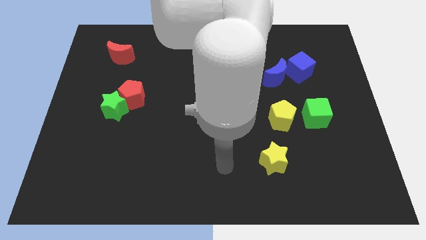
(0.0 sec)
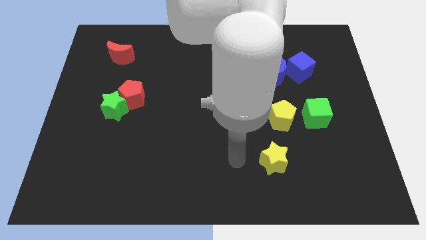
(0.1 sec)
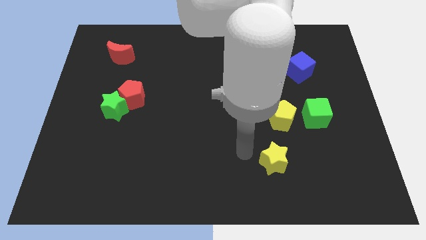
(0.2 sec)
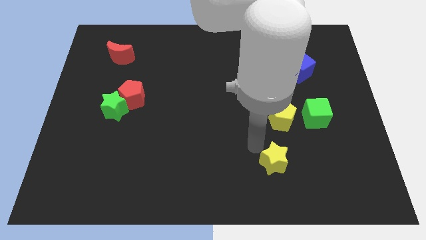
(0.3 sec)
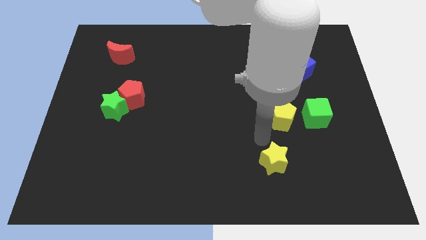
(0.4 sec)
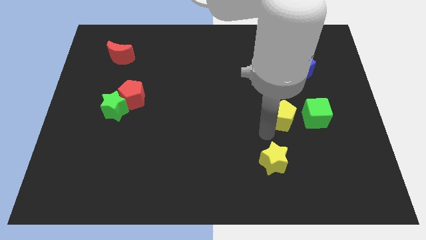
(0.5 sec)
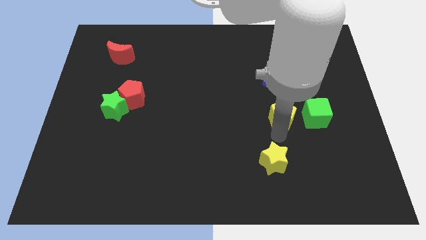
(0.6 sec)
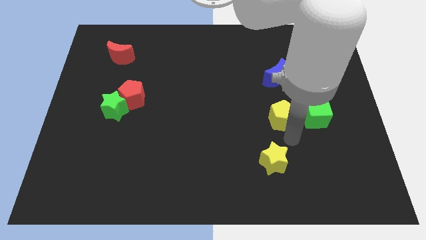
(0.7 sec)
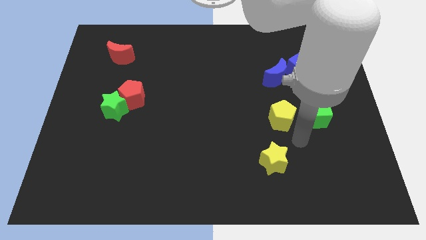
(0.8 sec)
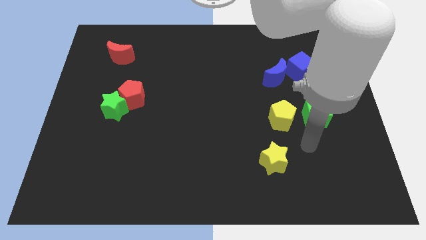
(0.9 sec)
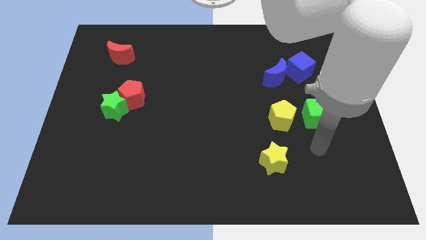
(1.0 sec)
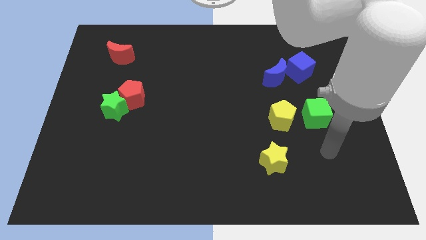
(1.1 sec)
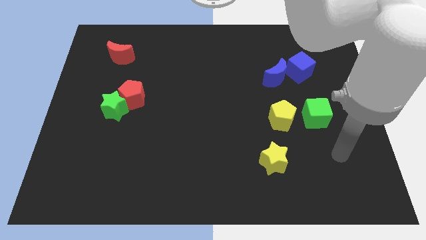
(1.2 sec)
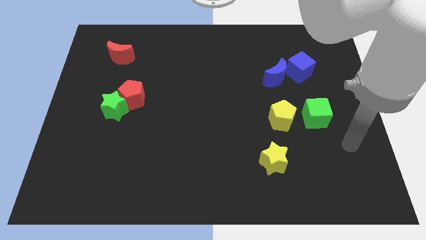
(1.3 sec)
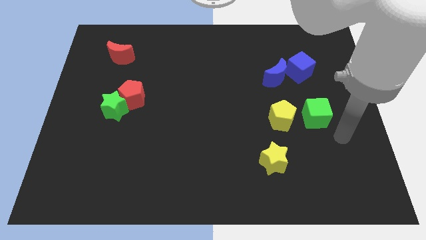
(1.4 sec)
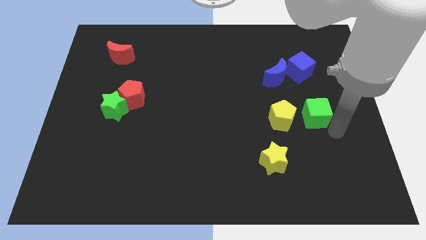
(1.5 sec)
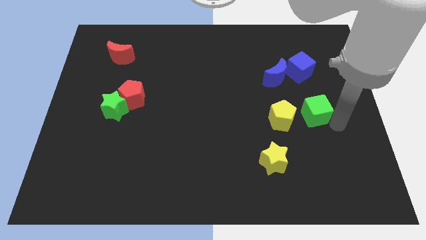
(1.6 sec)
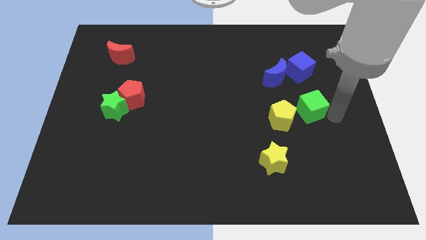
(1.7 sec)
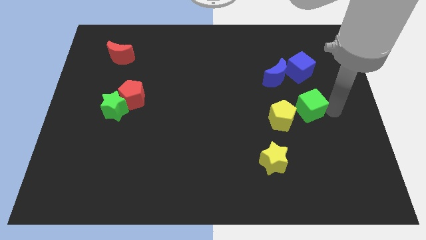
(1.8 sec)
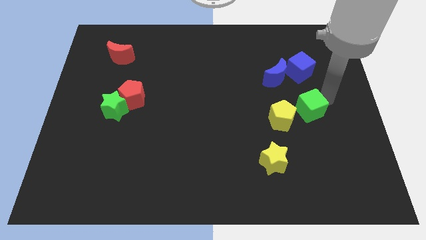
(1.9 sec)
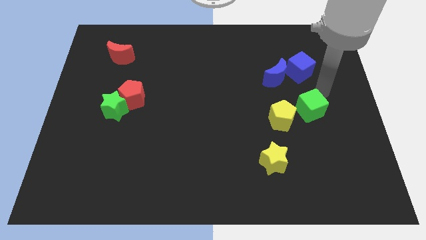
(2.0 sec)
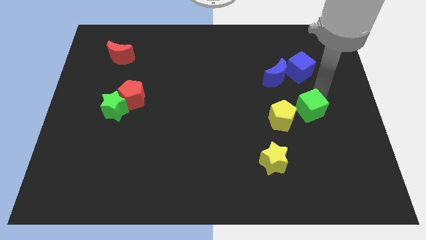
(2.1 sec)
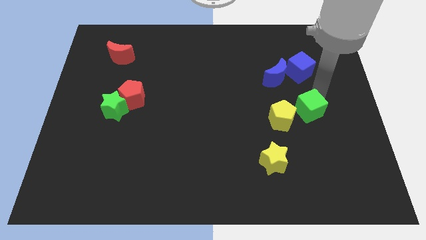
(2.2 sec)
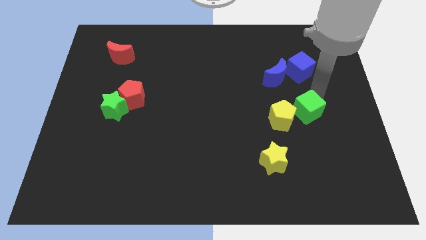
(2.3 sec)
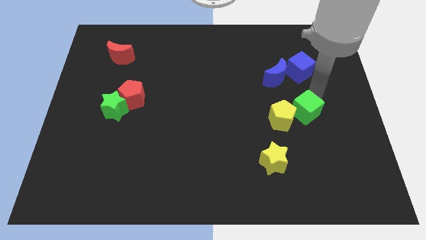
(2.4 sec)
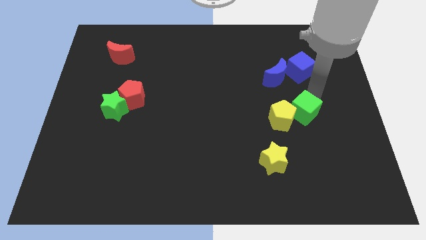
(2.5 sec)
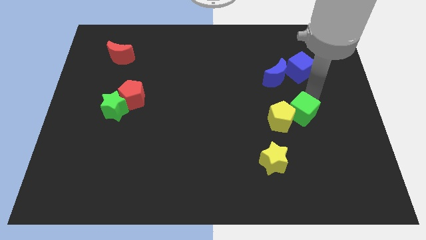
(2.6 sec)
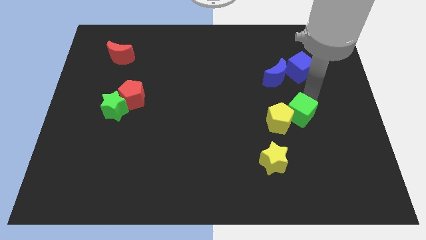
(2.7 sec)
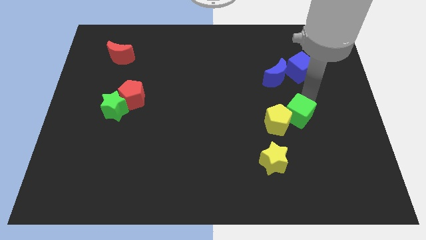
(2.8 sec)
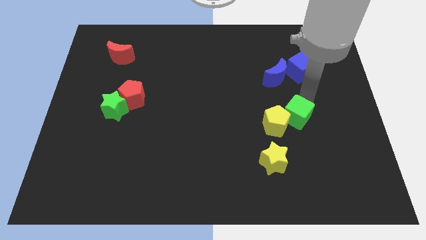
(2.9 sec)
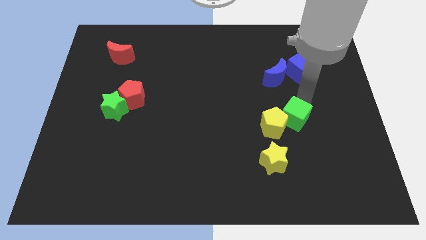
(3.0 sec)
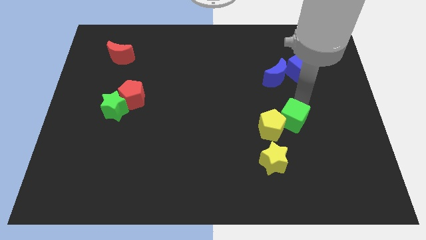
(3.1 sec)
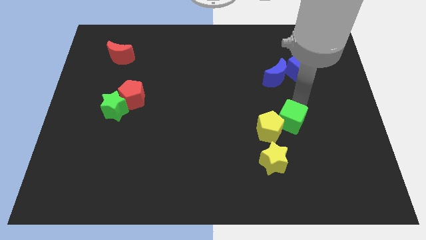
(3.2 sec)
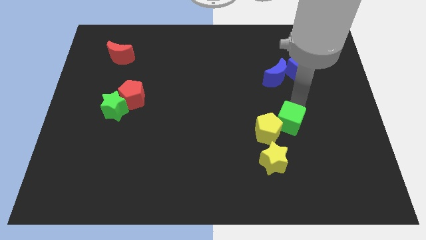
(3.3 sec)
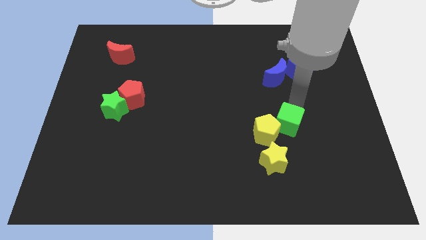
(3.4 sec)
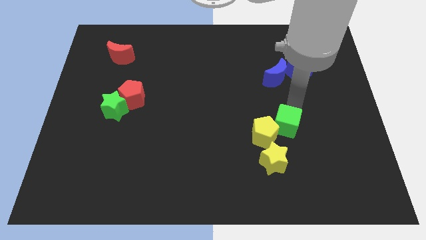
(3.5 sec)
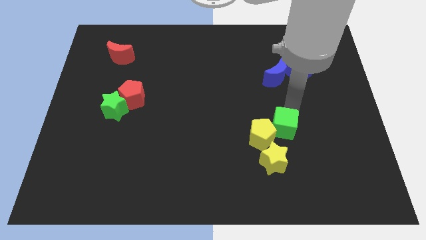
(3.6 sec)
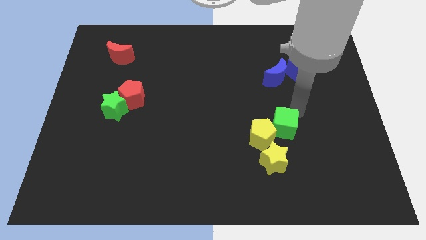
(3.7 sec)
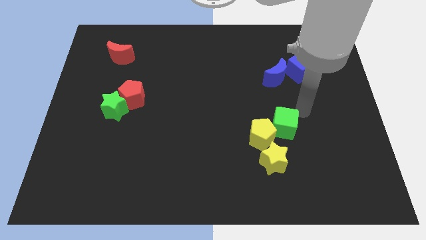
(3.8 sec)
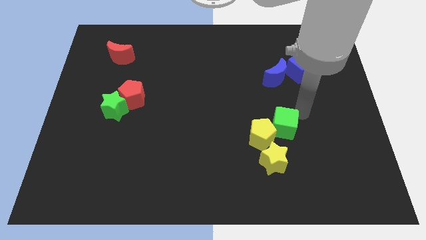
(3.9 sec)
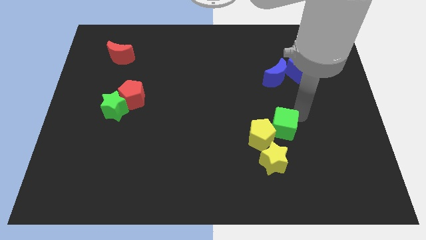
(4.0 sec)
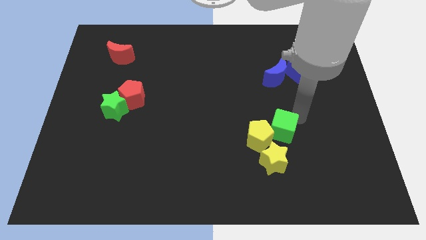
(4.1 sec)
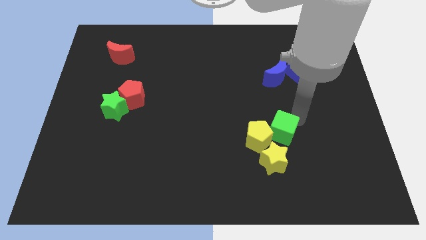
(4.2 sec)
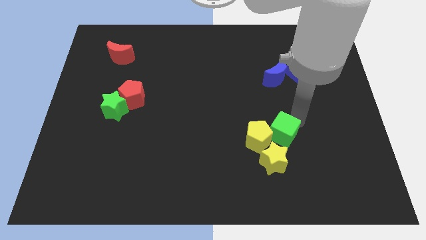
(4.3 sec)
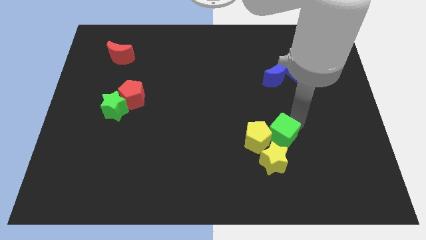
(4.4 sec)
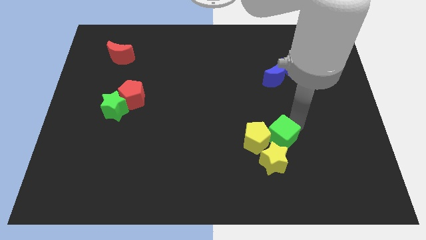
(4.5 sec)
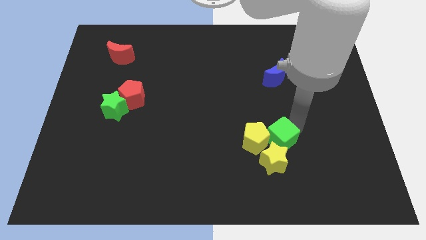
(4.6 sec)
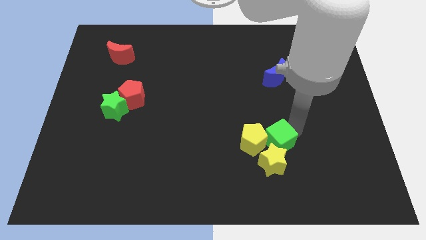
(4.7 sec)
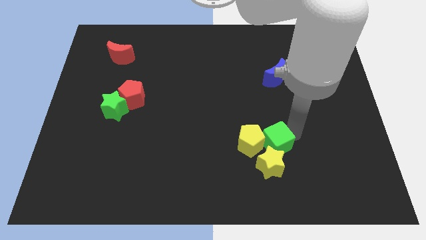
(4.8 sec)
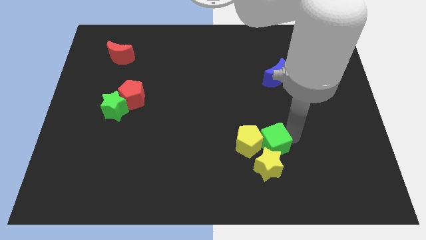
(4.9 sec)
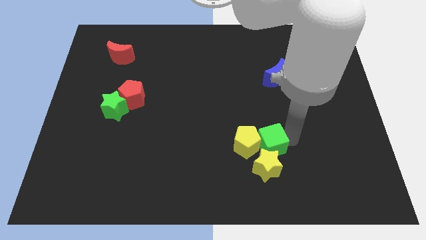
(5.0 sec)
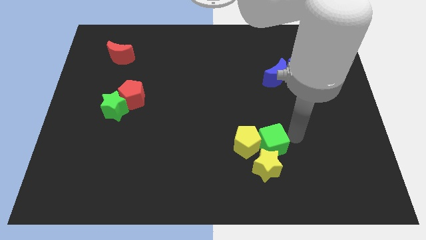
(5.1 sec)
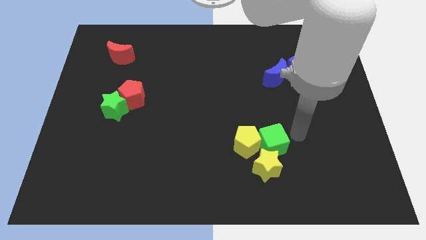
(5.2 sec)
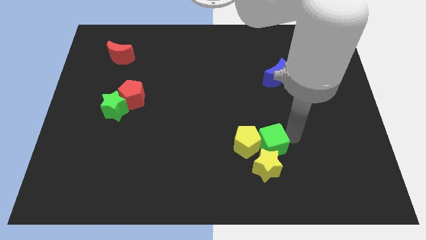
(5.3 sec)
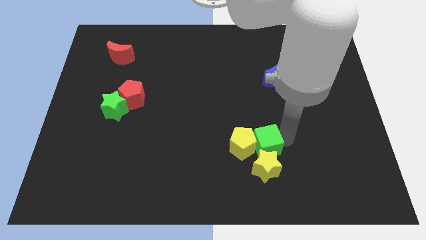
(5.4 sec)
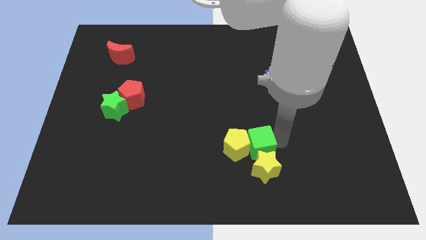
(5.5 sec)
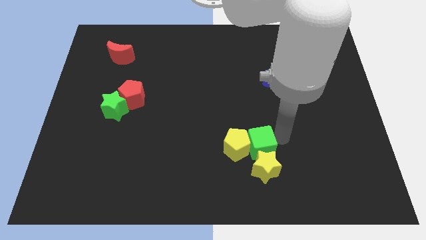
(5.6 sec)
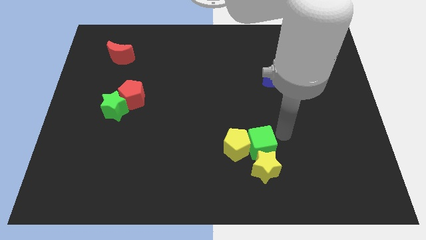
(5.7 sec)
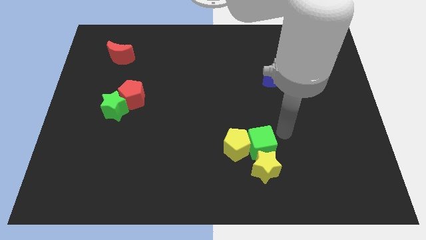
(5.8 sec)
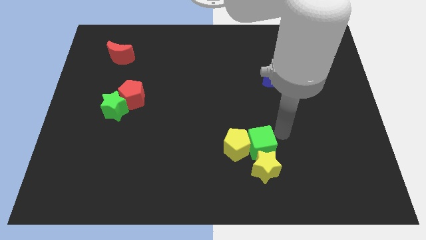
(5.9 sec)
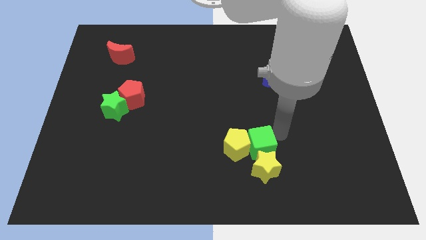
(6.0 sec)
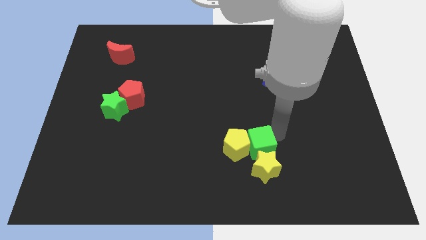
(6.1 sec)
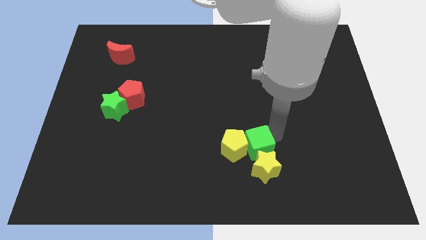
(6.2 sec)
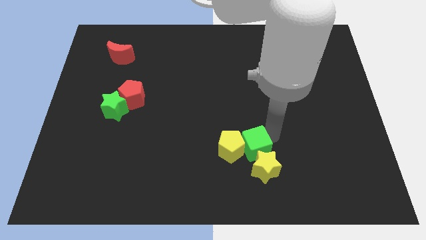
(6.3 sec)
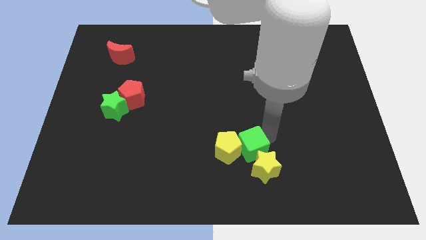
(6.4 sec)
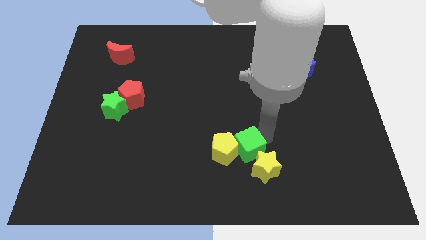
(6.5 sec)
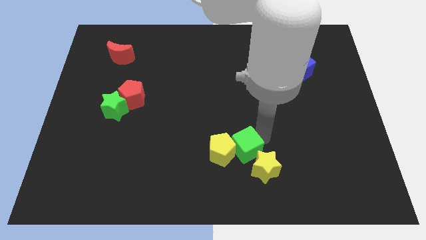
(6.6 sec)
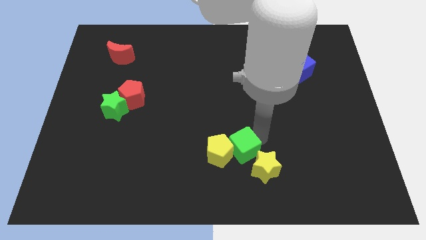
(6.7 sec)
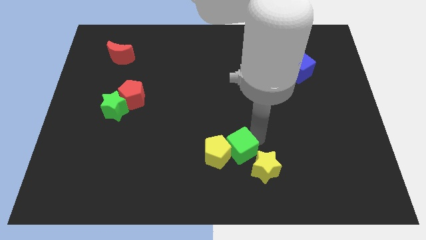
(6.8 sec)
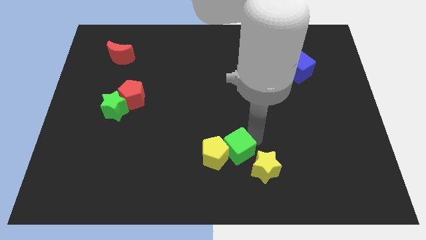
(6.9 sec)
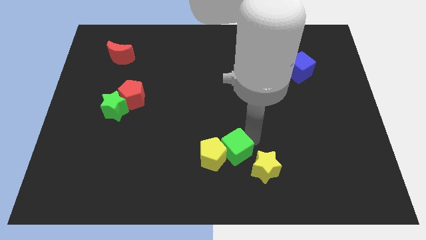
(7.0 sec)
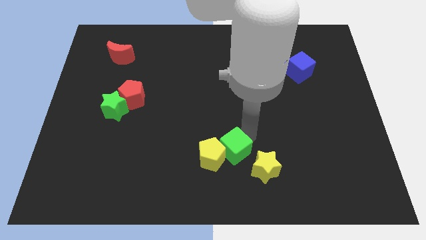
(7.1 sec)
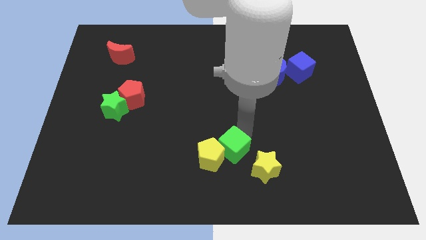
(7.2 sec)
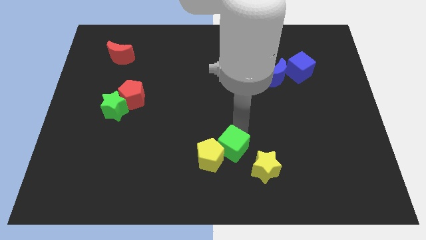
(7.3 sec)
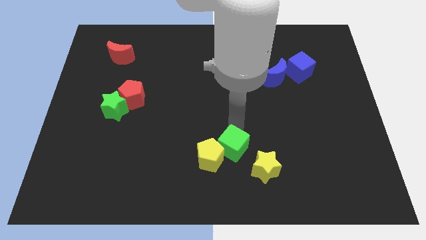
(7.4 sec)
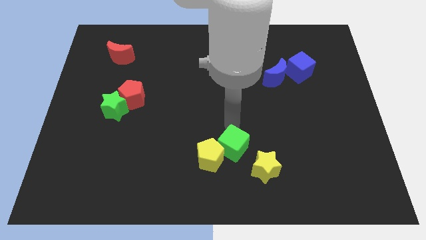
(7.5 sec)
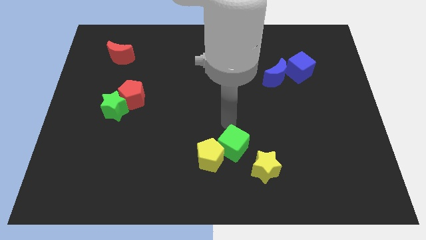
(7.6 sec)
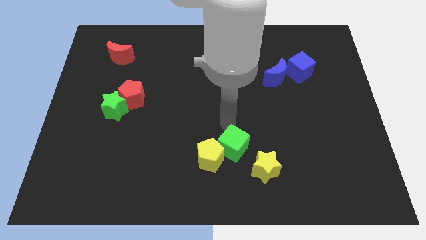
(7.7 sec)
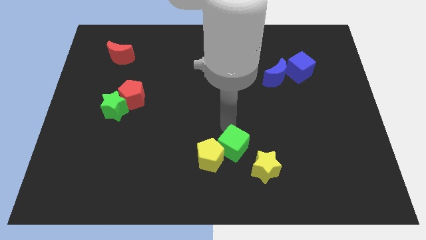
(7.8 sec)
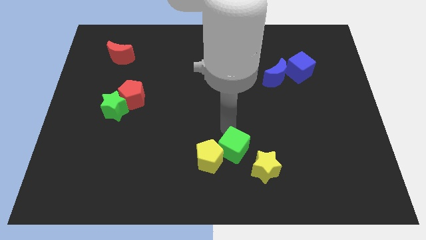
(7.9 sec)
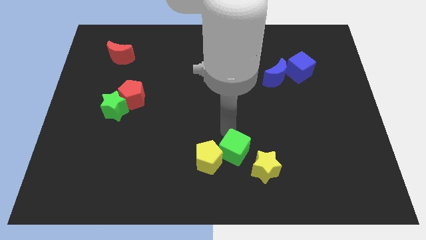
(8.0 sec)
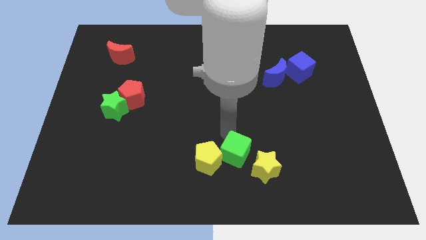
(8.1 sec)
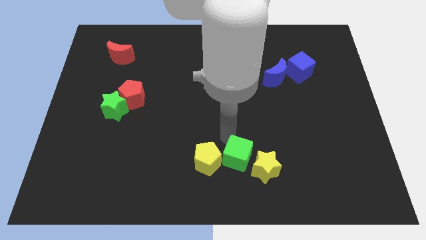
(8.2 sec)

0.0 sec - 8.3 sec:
slide the green cube to the bottom
